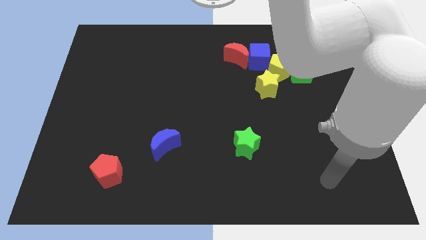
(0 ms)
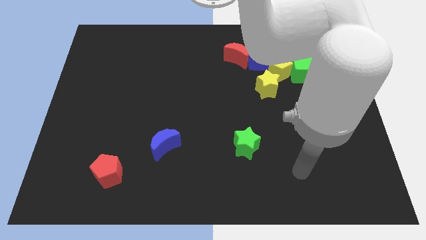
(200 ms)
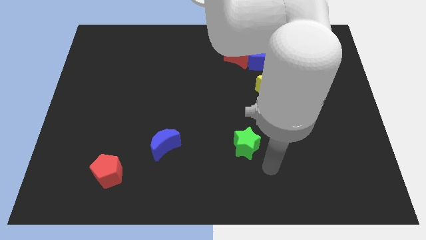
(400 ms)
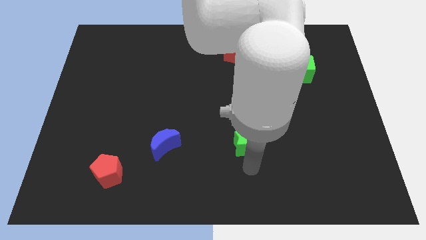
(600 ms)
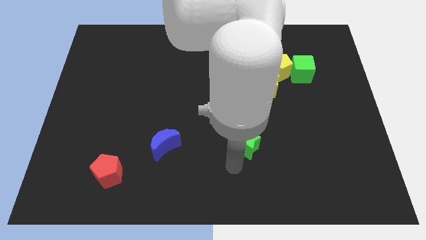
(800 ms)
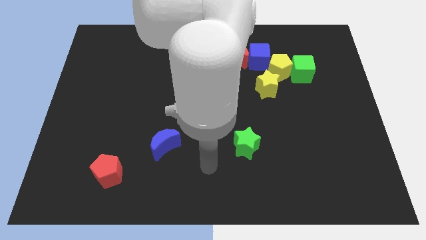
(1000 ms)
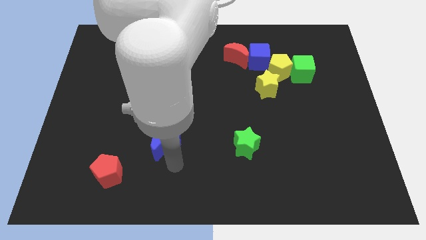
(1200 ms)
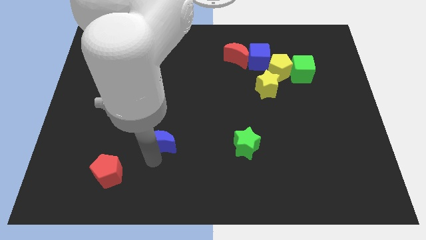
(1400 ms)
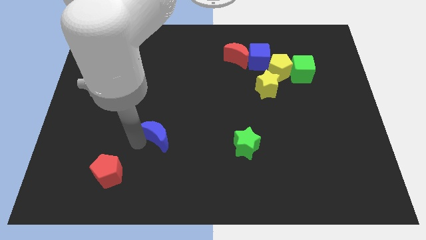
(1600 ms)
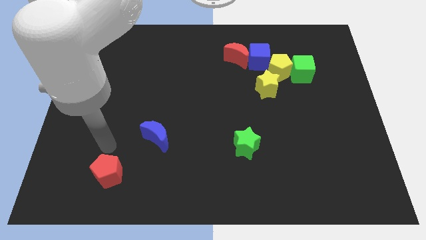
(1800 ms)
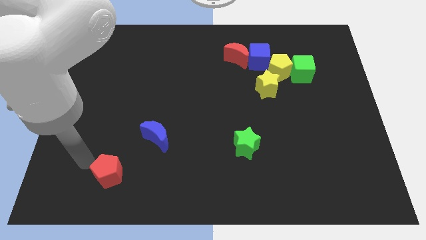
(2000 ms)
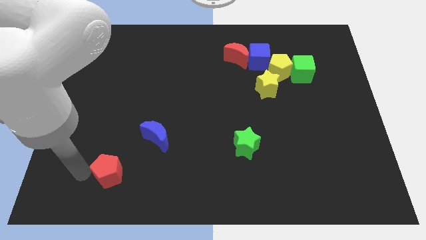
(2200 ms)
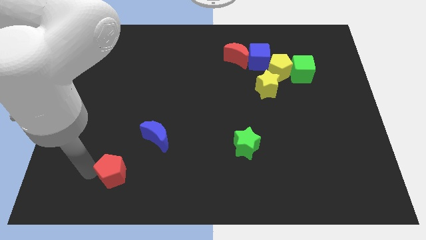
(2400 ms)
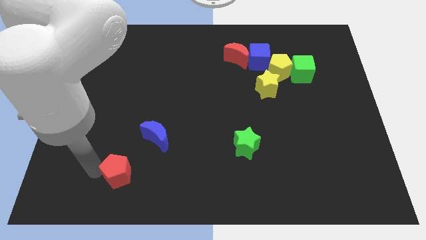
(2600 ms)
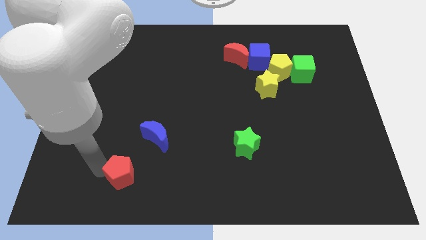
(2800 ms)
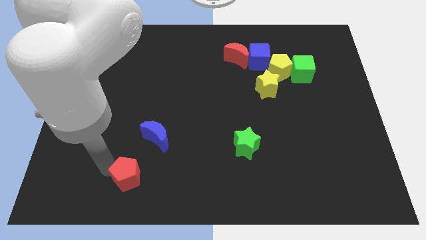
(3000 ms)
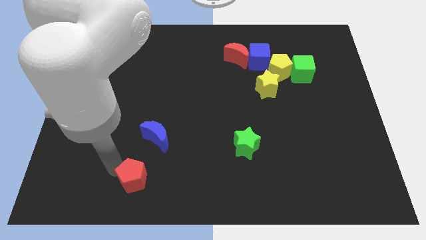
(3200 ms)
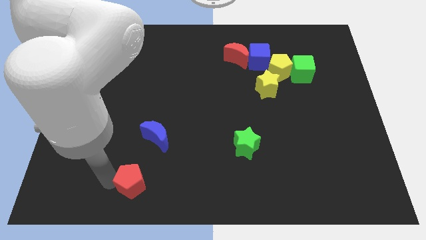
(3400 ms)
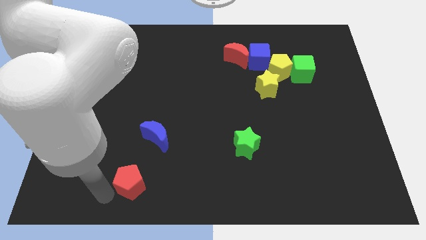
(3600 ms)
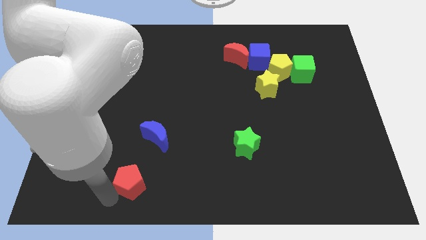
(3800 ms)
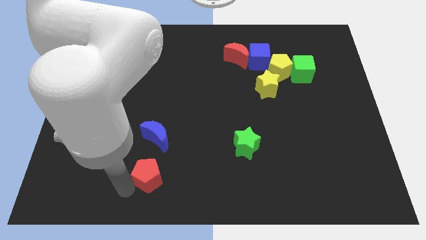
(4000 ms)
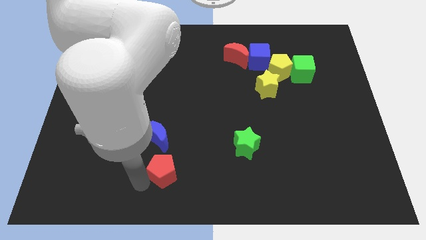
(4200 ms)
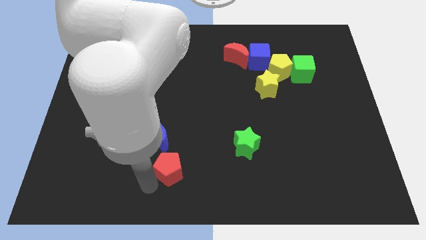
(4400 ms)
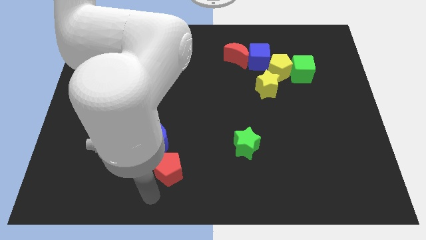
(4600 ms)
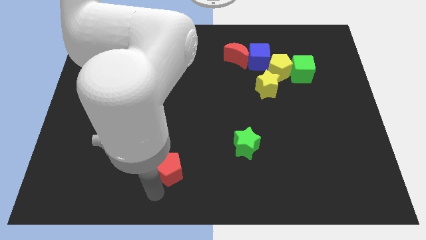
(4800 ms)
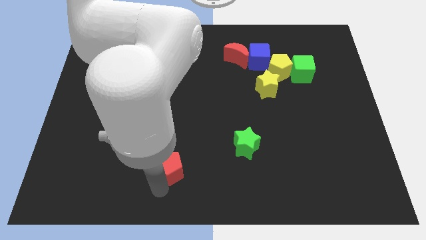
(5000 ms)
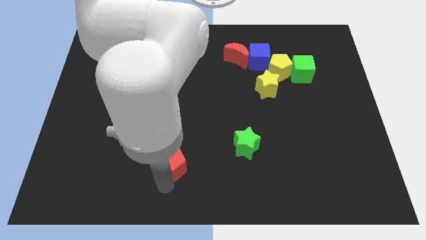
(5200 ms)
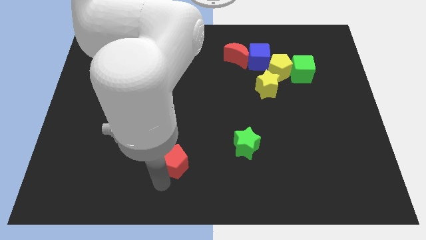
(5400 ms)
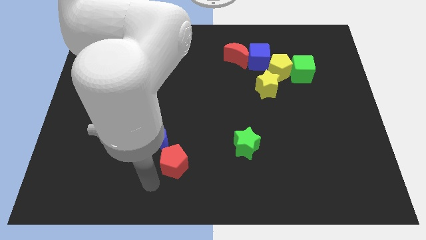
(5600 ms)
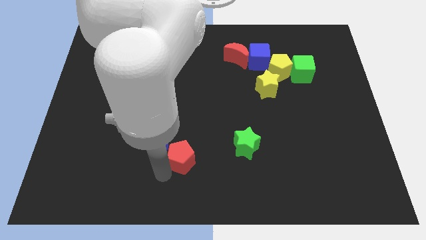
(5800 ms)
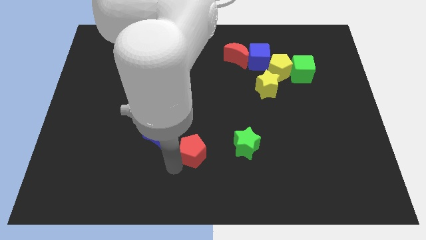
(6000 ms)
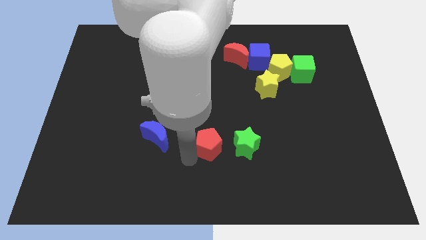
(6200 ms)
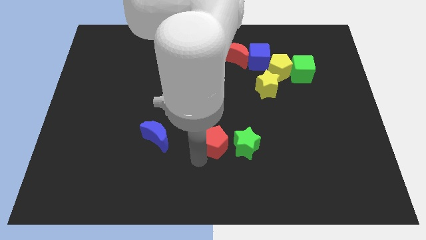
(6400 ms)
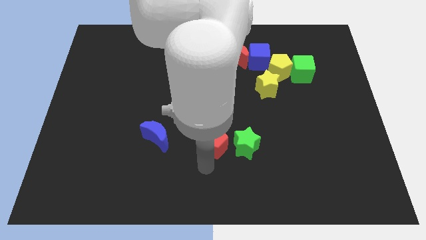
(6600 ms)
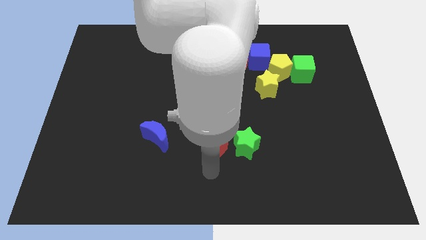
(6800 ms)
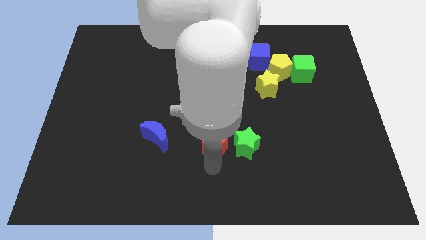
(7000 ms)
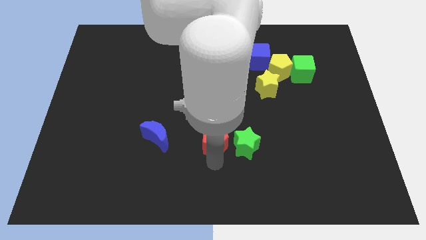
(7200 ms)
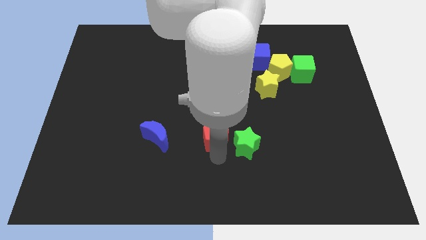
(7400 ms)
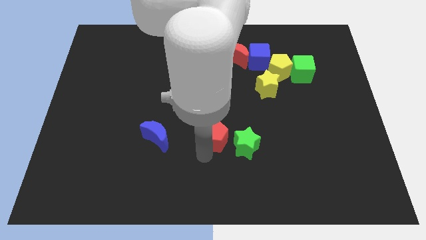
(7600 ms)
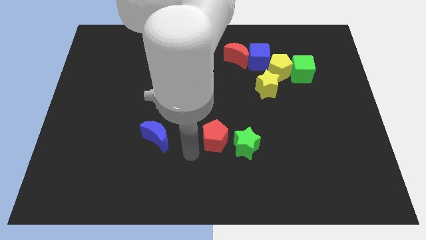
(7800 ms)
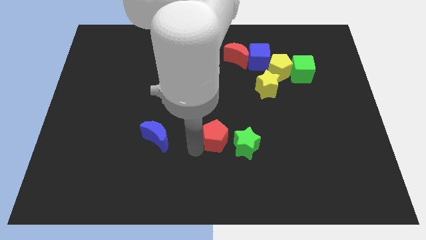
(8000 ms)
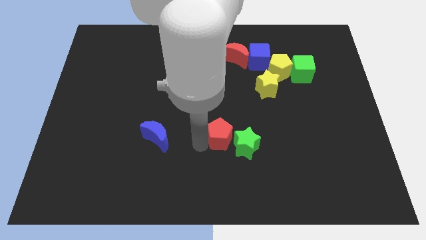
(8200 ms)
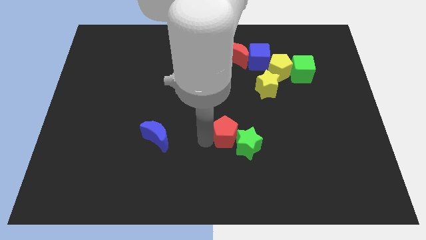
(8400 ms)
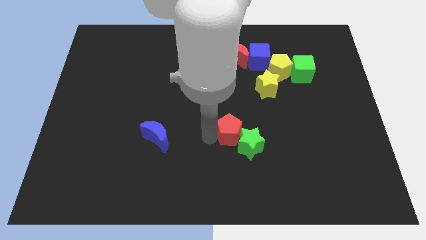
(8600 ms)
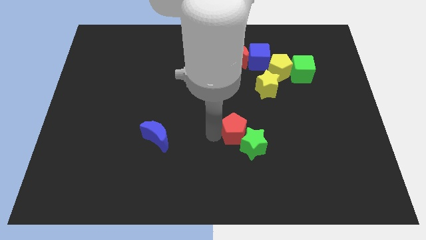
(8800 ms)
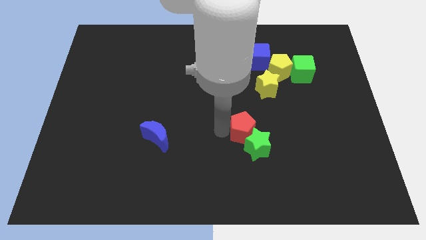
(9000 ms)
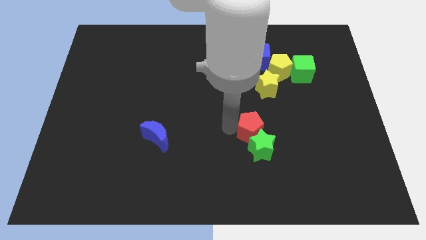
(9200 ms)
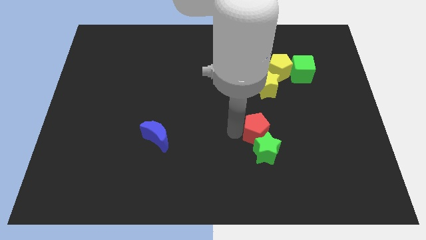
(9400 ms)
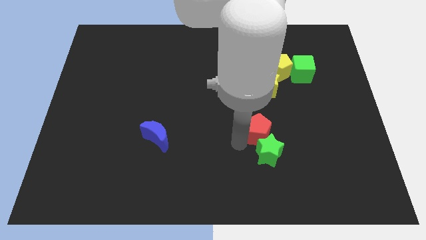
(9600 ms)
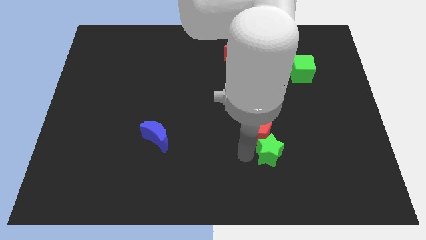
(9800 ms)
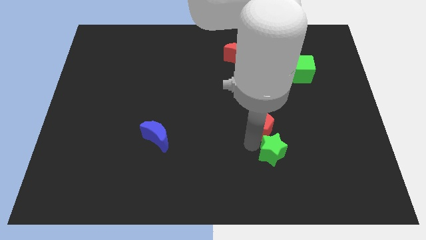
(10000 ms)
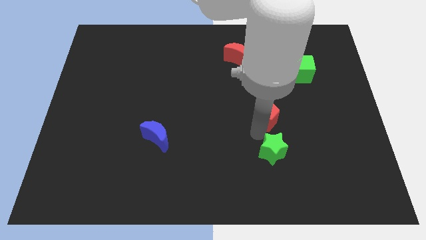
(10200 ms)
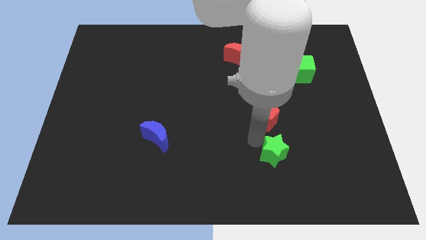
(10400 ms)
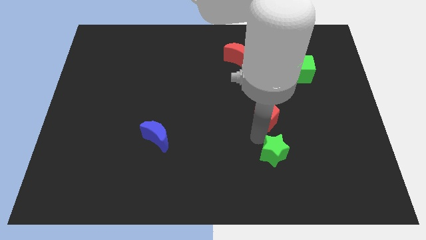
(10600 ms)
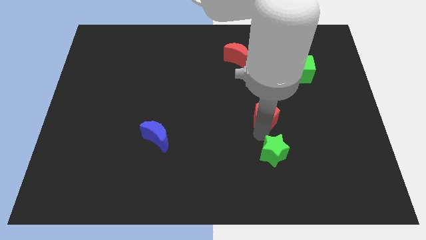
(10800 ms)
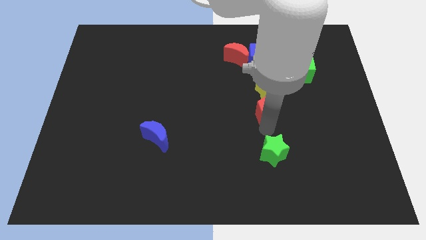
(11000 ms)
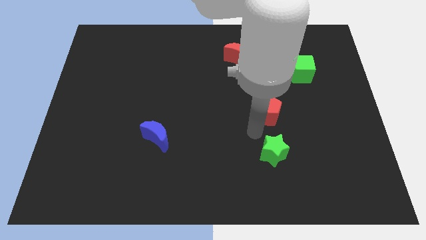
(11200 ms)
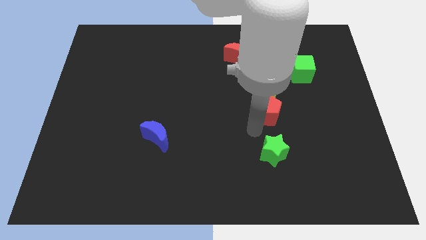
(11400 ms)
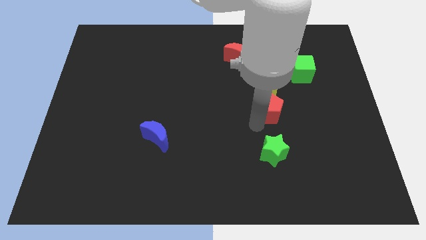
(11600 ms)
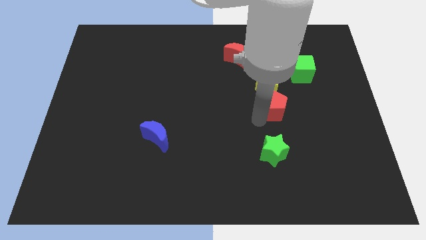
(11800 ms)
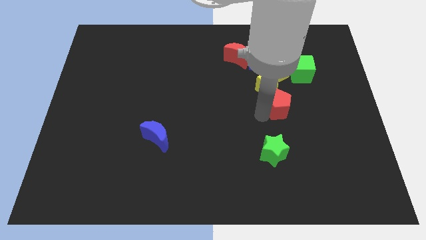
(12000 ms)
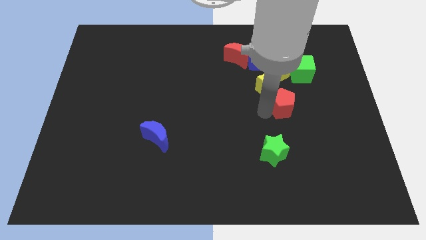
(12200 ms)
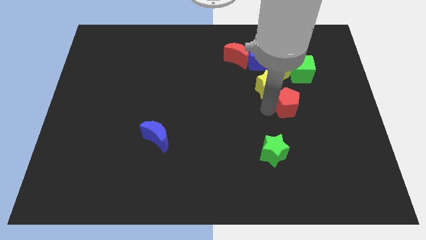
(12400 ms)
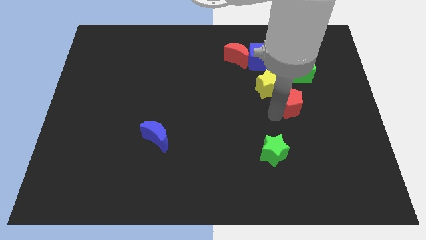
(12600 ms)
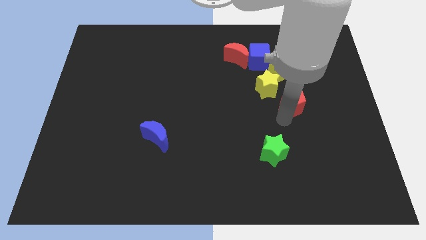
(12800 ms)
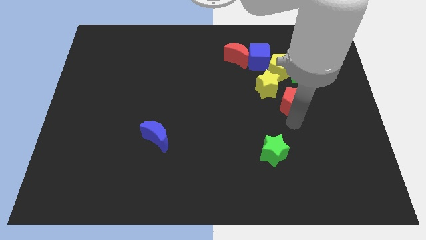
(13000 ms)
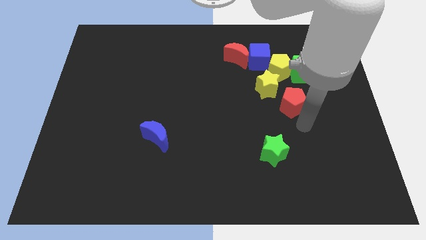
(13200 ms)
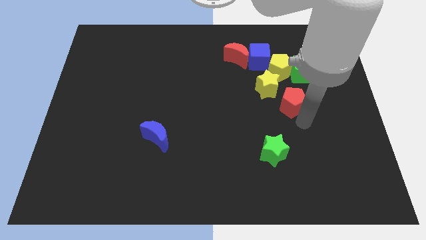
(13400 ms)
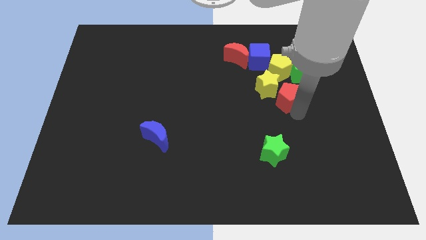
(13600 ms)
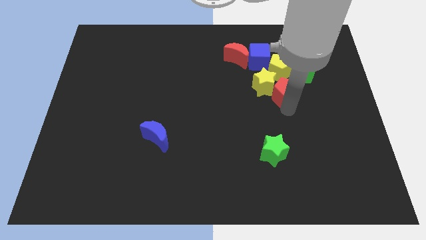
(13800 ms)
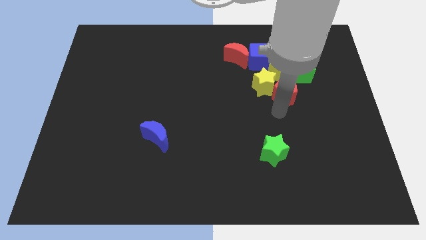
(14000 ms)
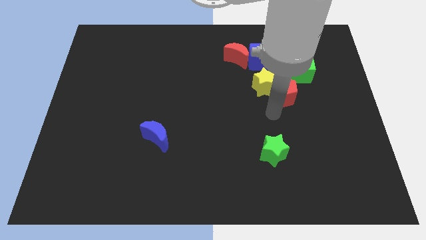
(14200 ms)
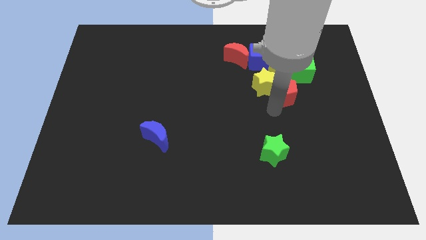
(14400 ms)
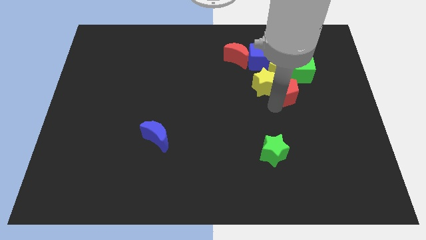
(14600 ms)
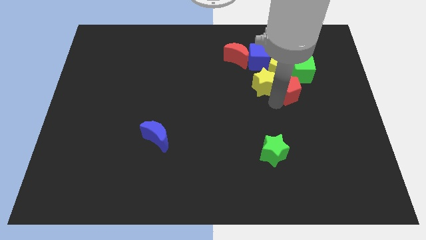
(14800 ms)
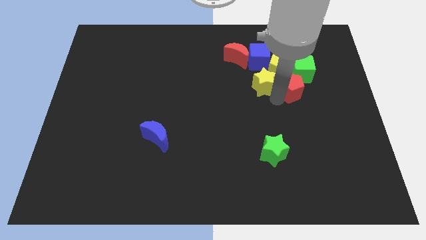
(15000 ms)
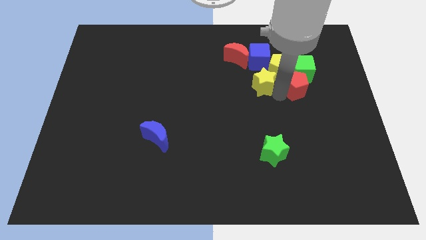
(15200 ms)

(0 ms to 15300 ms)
slide the red pentagon next to the green cube

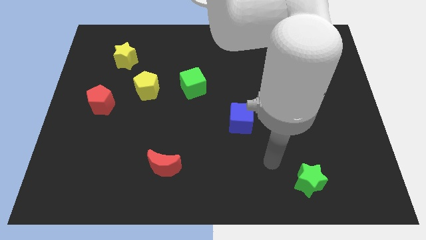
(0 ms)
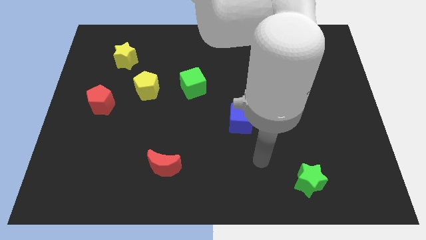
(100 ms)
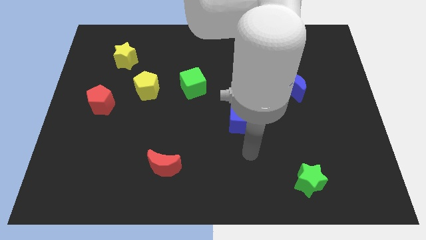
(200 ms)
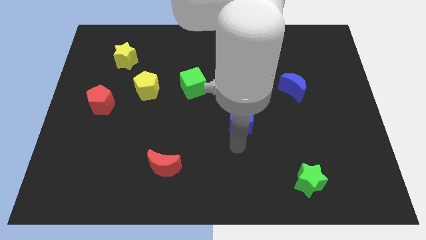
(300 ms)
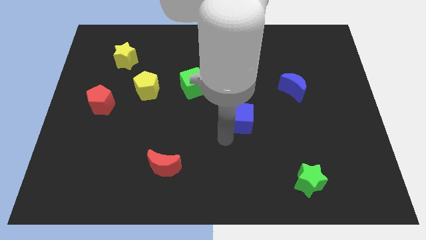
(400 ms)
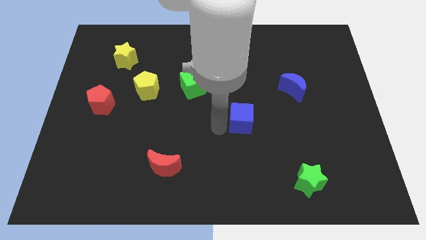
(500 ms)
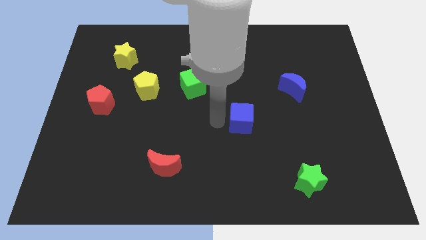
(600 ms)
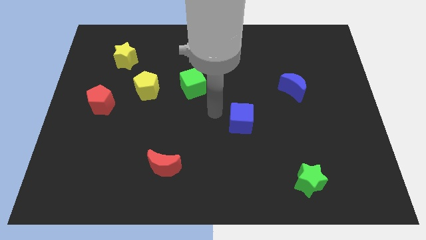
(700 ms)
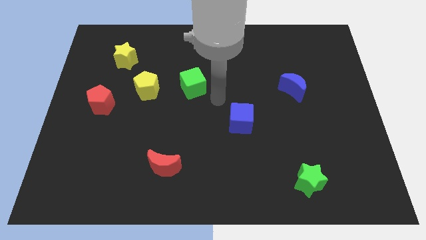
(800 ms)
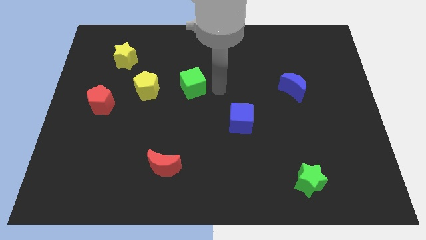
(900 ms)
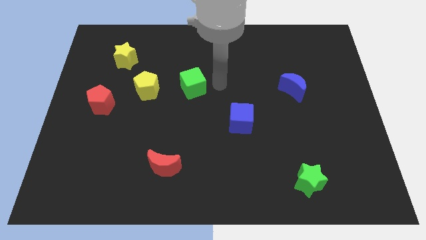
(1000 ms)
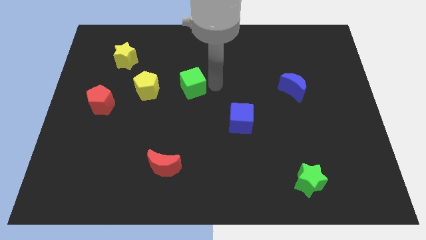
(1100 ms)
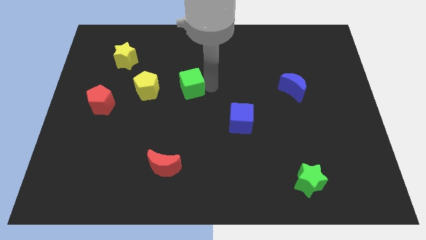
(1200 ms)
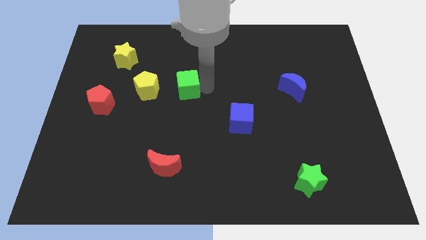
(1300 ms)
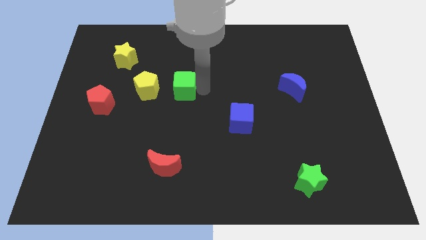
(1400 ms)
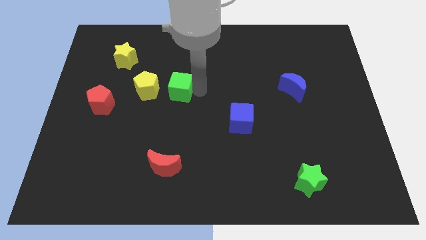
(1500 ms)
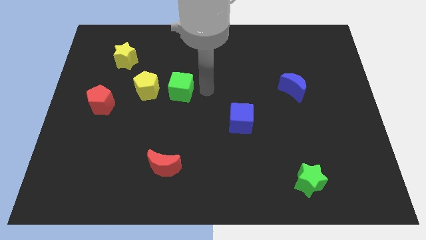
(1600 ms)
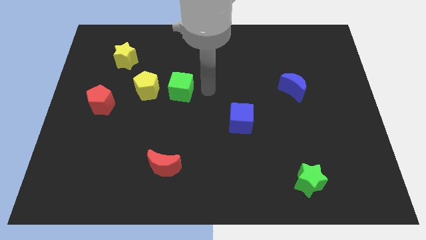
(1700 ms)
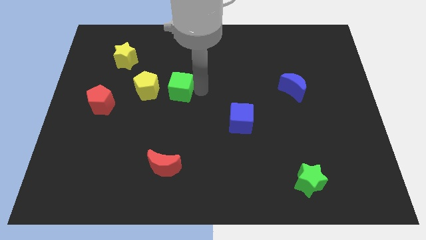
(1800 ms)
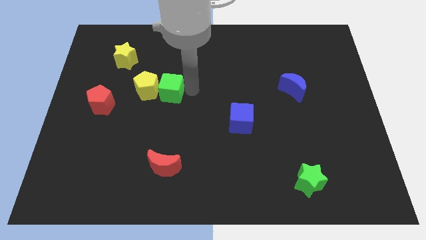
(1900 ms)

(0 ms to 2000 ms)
move the green cube next to the yellow pentagon
